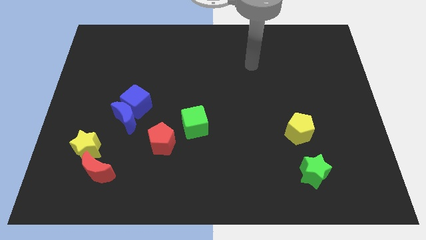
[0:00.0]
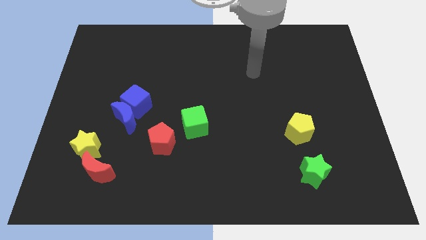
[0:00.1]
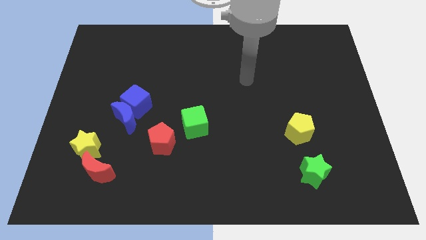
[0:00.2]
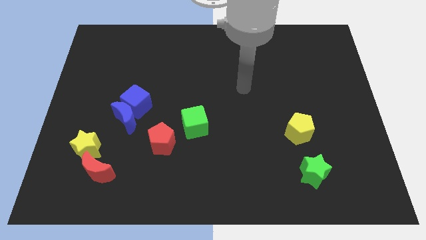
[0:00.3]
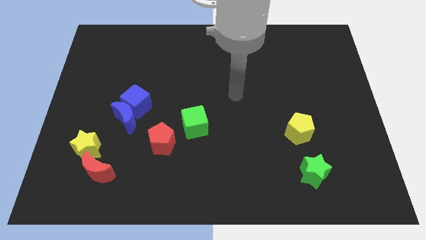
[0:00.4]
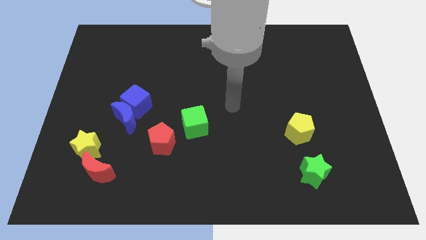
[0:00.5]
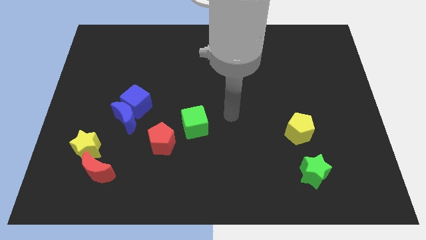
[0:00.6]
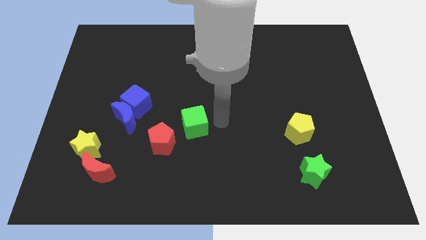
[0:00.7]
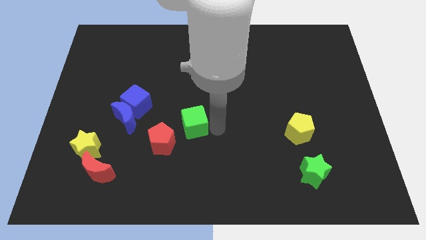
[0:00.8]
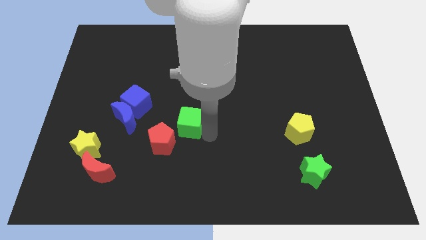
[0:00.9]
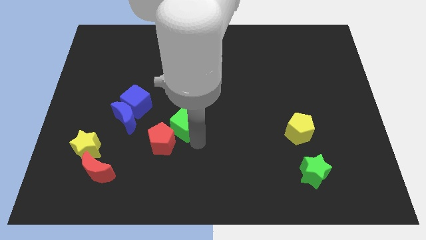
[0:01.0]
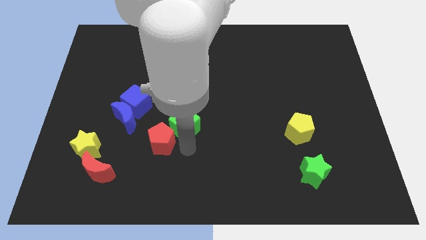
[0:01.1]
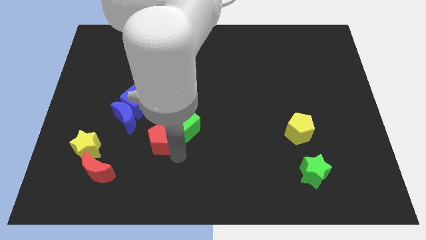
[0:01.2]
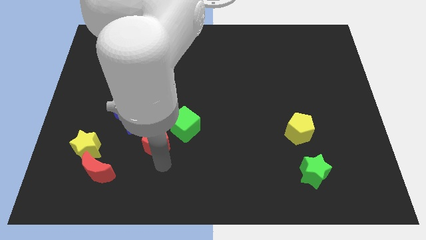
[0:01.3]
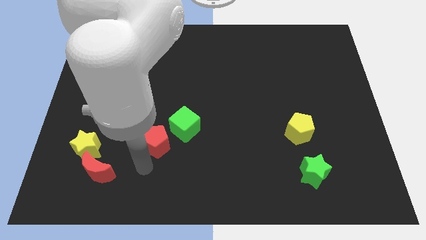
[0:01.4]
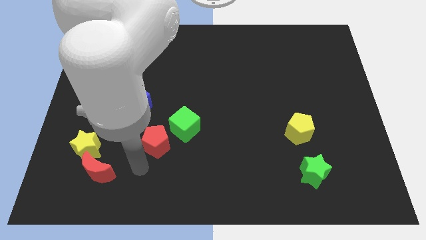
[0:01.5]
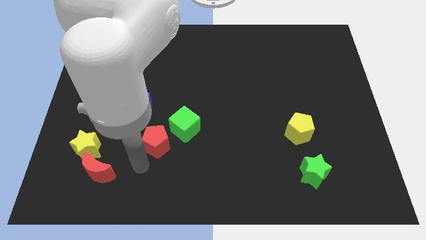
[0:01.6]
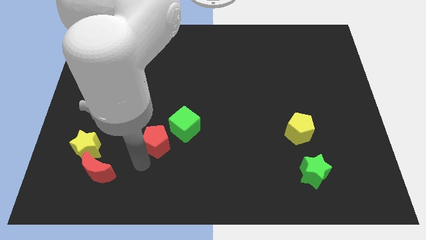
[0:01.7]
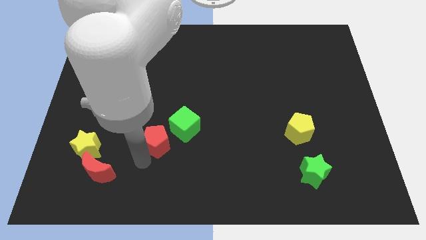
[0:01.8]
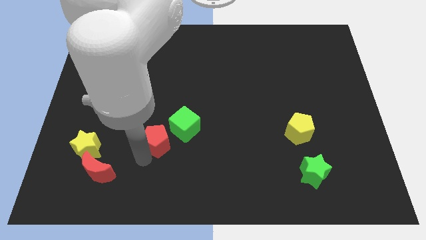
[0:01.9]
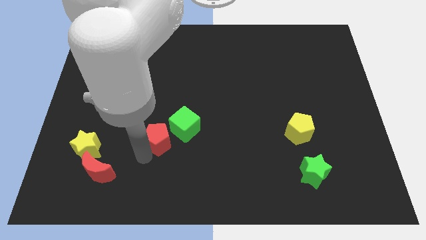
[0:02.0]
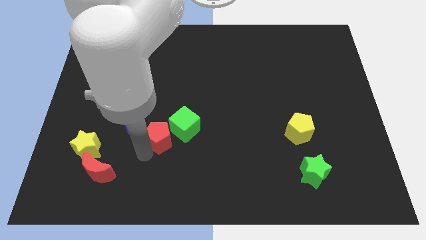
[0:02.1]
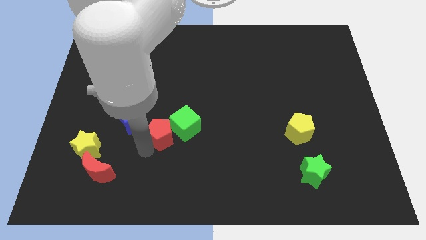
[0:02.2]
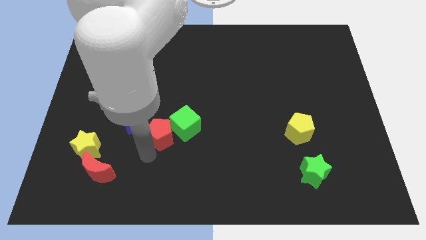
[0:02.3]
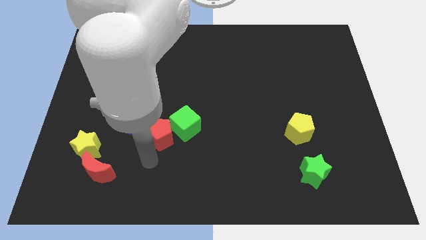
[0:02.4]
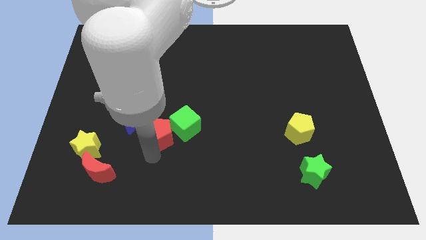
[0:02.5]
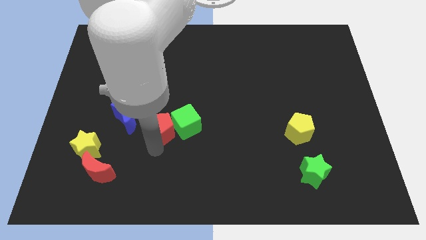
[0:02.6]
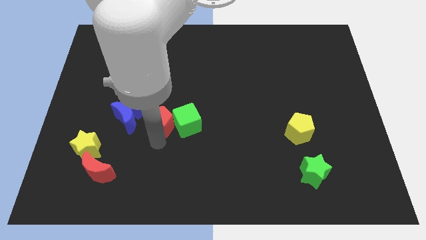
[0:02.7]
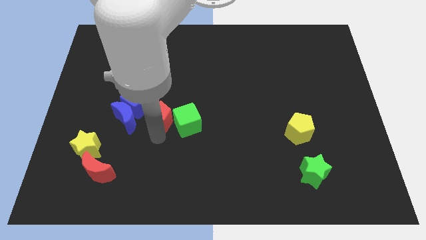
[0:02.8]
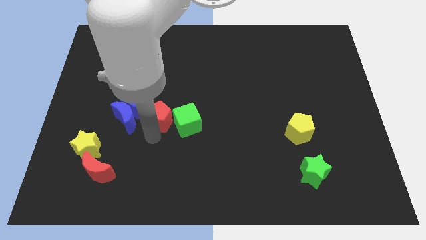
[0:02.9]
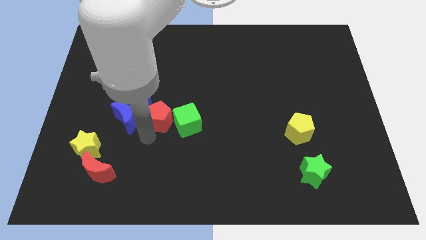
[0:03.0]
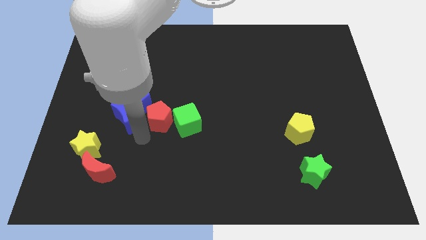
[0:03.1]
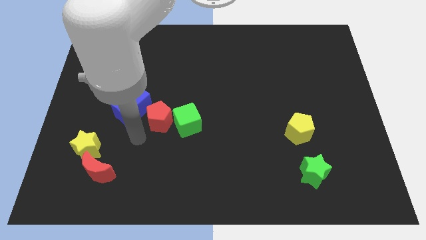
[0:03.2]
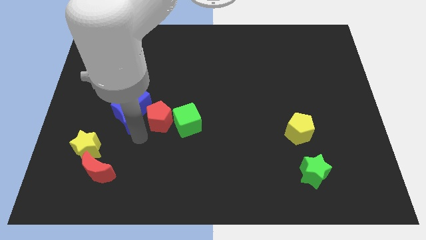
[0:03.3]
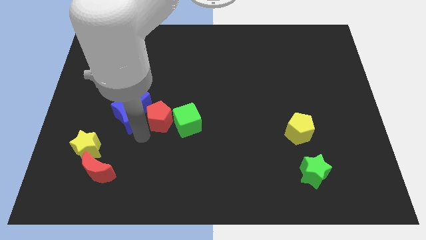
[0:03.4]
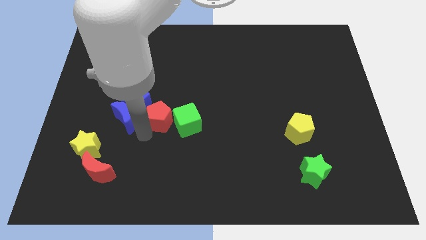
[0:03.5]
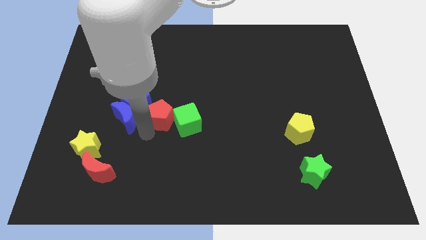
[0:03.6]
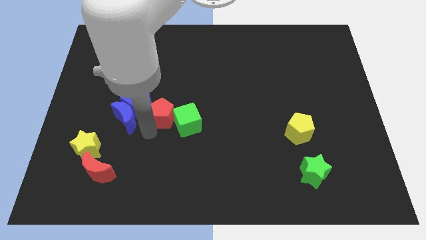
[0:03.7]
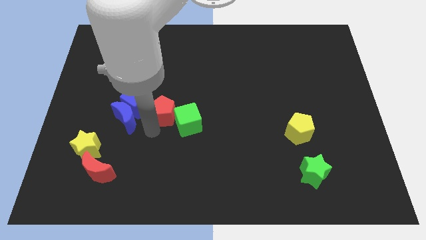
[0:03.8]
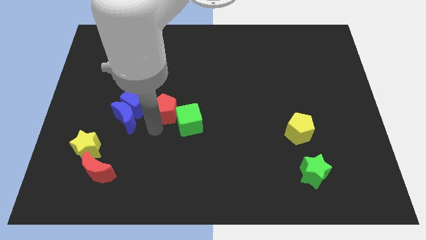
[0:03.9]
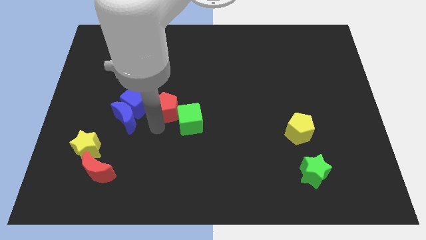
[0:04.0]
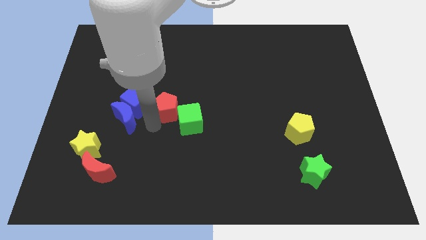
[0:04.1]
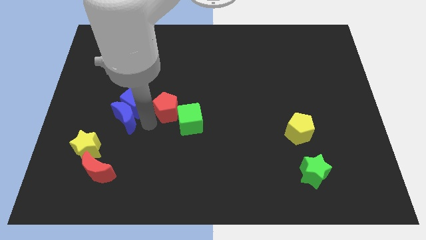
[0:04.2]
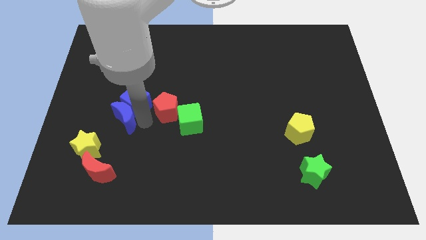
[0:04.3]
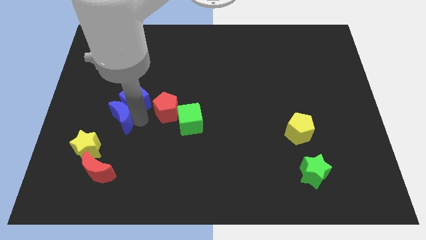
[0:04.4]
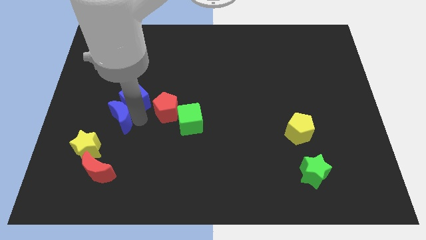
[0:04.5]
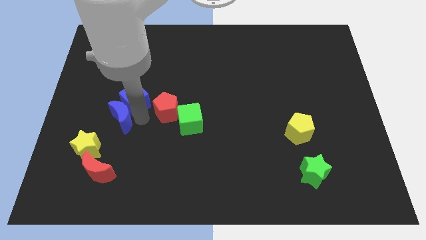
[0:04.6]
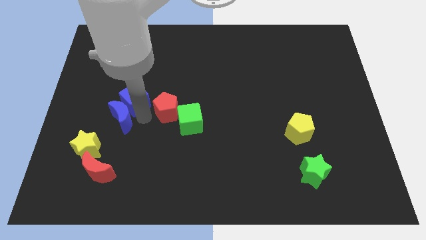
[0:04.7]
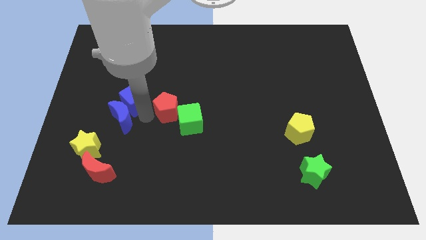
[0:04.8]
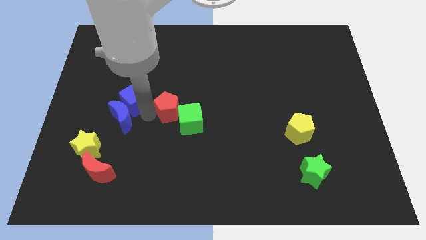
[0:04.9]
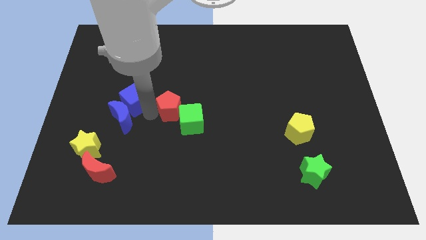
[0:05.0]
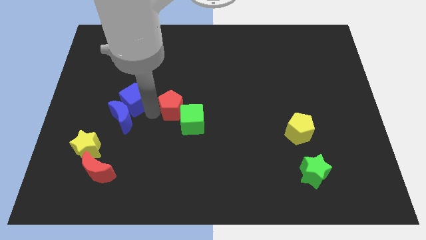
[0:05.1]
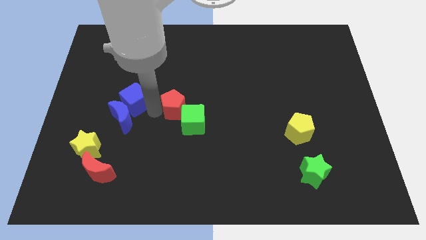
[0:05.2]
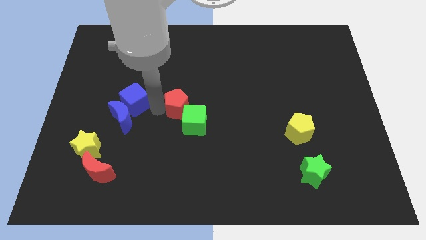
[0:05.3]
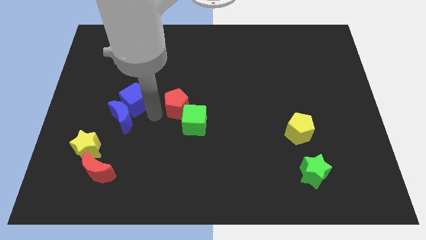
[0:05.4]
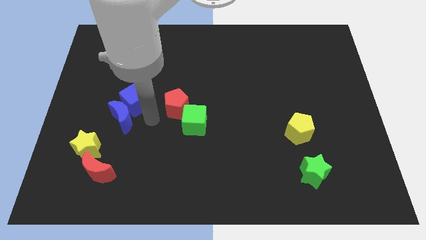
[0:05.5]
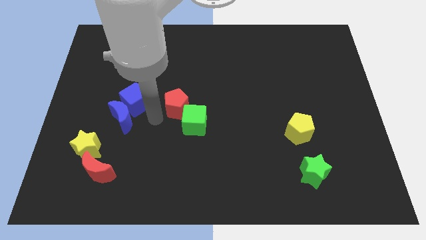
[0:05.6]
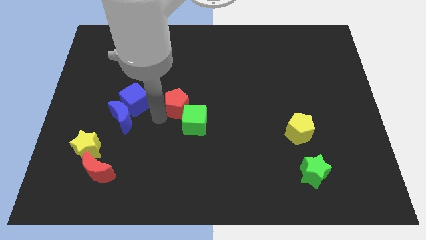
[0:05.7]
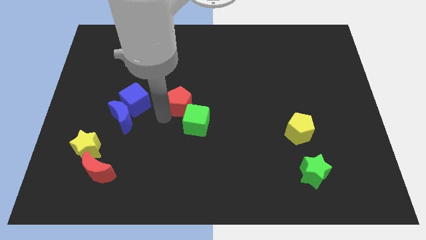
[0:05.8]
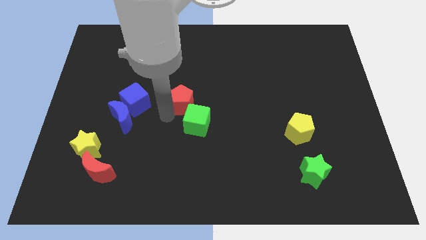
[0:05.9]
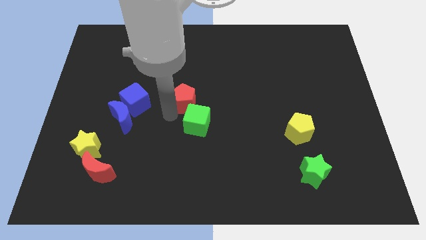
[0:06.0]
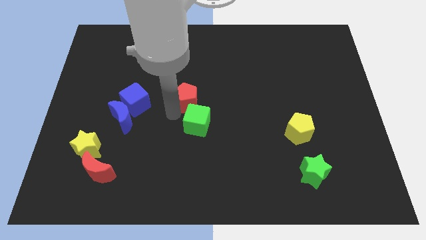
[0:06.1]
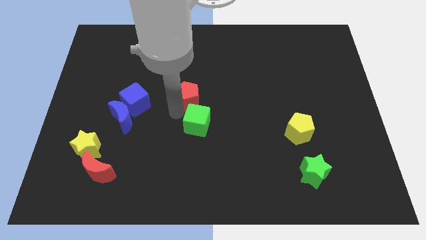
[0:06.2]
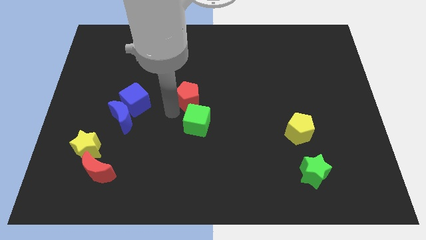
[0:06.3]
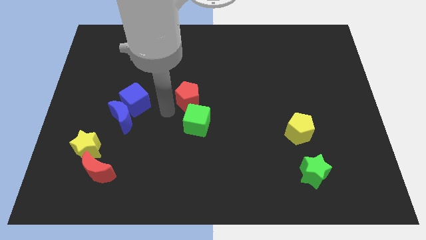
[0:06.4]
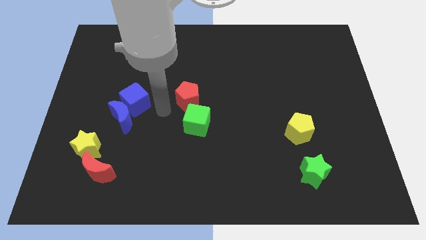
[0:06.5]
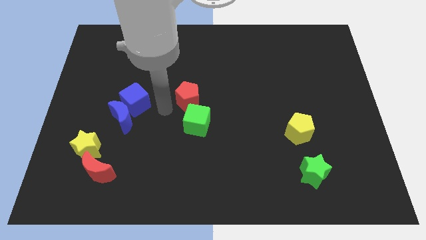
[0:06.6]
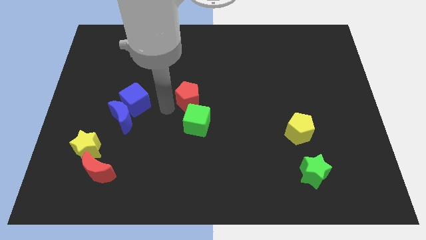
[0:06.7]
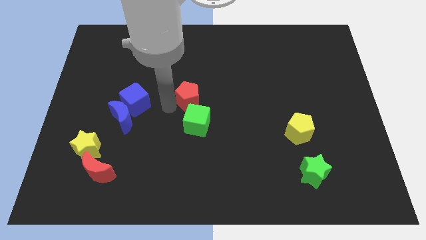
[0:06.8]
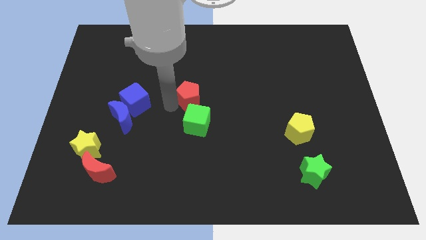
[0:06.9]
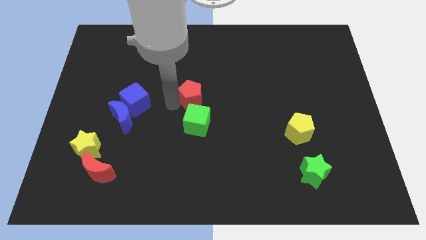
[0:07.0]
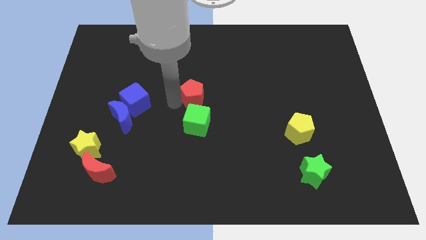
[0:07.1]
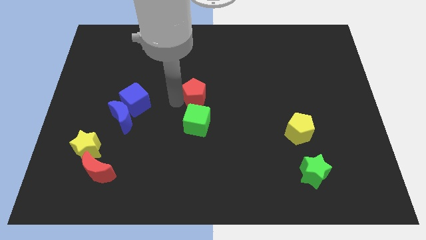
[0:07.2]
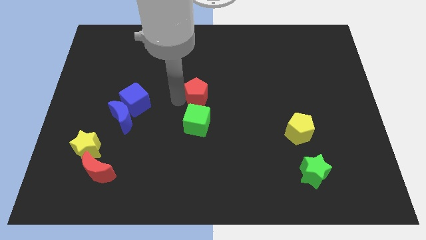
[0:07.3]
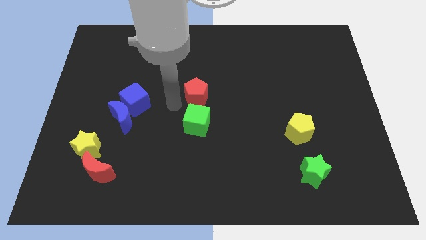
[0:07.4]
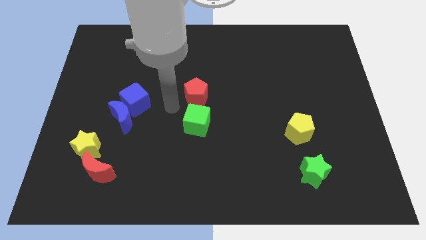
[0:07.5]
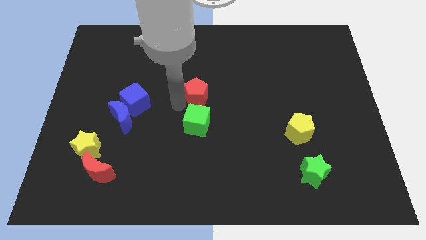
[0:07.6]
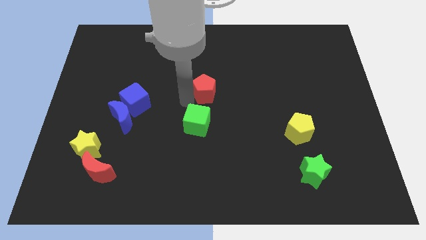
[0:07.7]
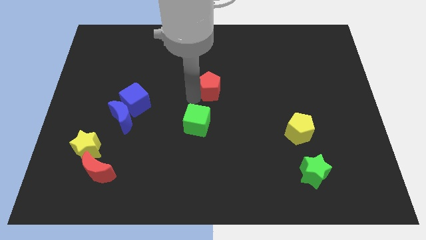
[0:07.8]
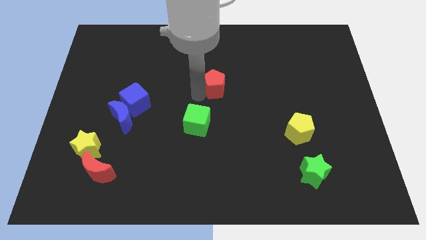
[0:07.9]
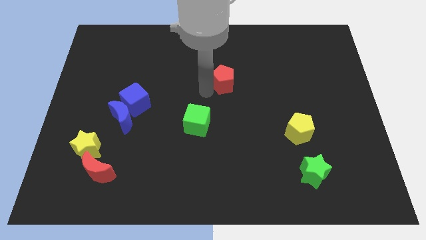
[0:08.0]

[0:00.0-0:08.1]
push the red pentagon upwards and then to the right

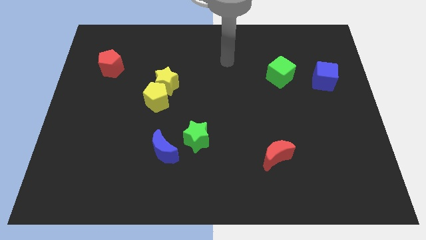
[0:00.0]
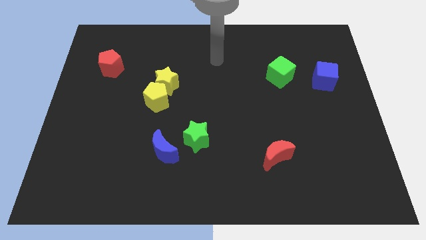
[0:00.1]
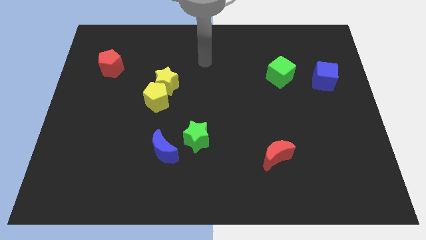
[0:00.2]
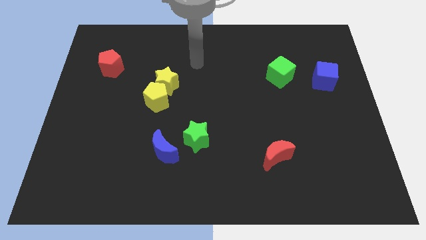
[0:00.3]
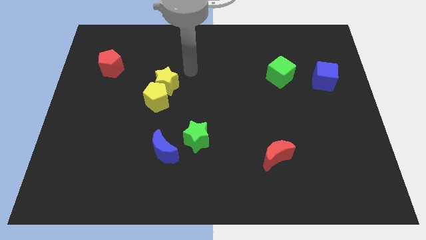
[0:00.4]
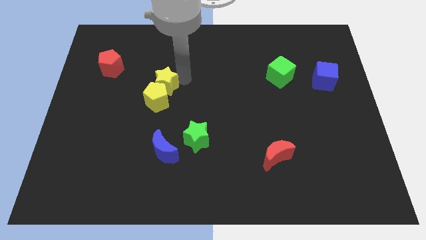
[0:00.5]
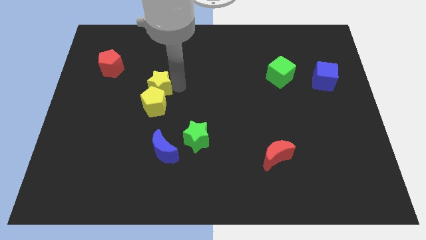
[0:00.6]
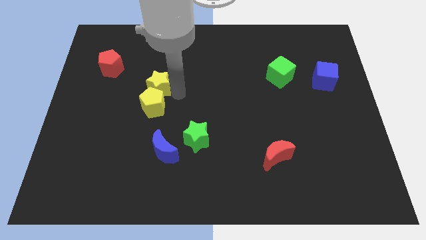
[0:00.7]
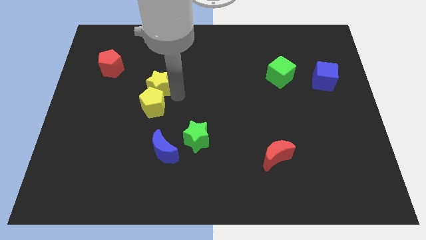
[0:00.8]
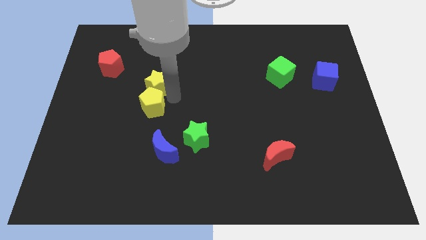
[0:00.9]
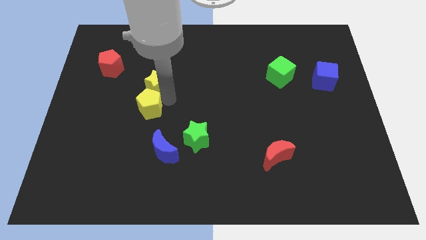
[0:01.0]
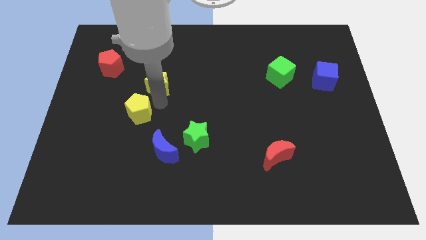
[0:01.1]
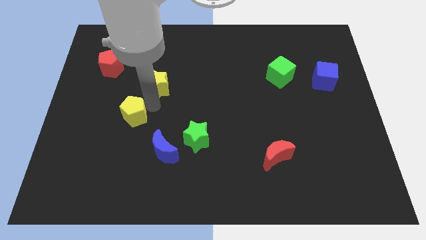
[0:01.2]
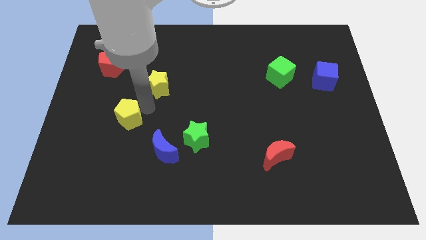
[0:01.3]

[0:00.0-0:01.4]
slightly slide the yellow pentagon downwards and left
